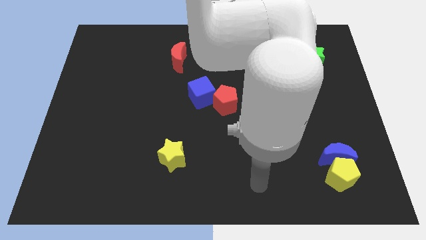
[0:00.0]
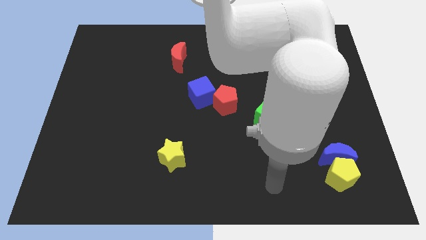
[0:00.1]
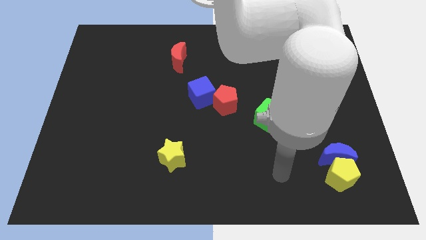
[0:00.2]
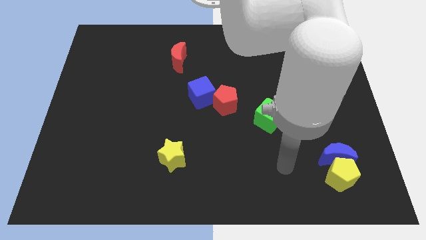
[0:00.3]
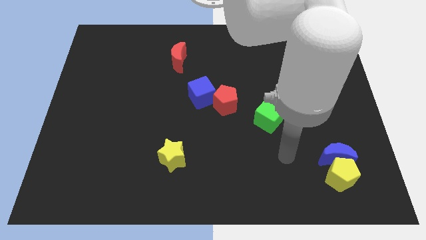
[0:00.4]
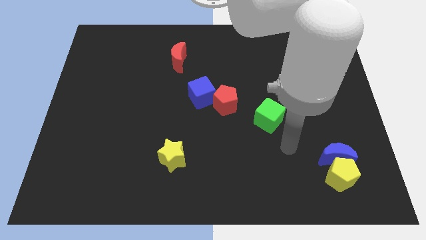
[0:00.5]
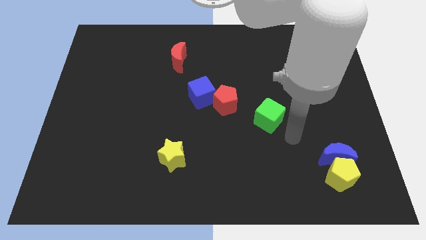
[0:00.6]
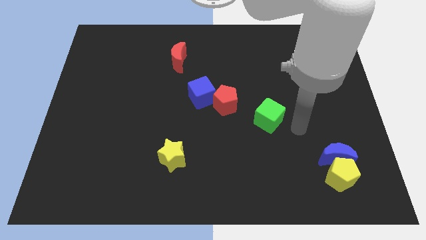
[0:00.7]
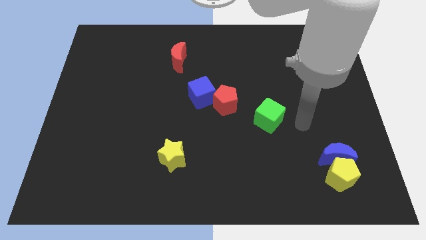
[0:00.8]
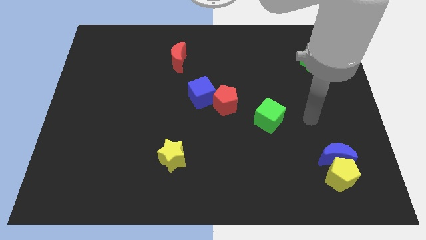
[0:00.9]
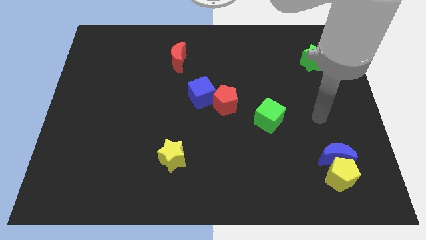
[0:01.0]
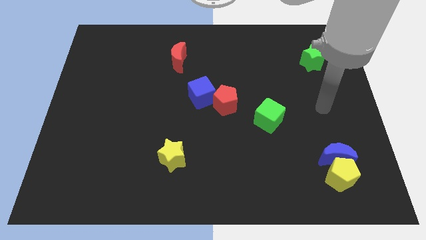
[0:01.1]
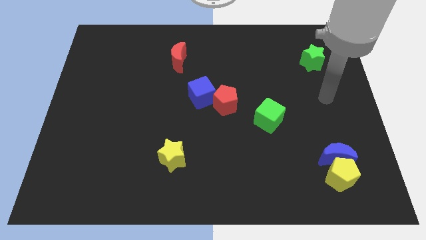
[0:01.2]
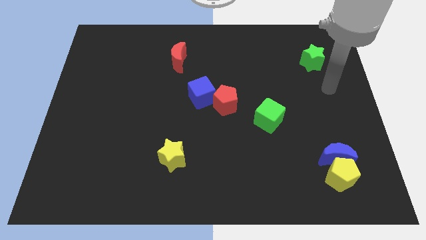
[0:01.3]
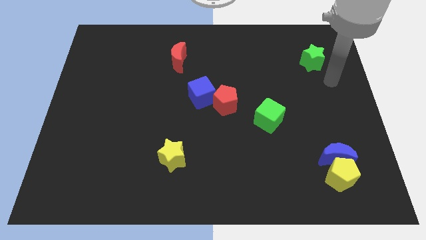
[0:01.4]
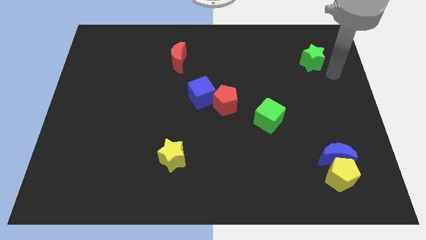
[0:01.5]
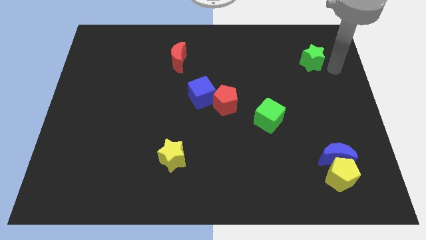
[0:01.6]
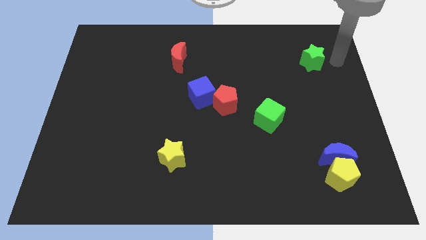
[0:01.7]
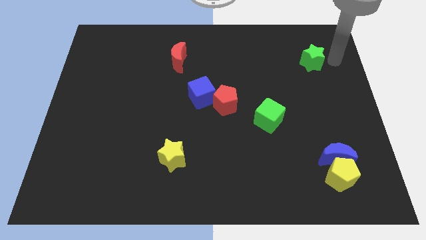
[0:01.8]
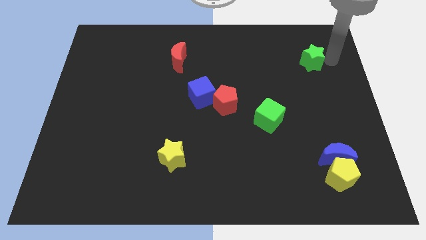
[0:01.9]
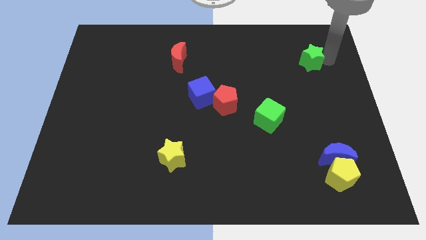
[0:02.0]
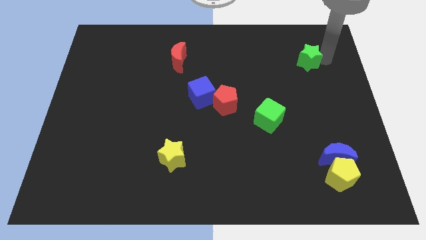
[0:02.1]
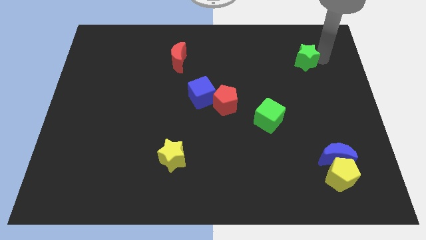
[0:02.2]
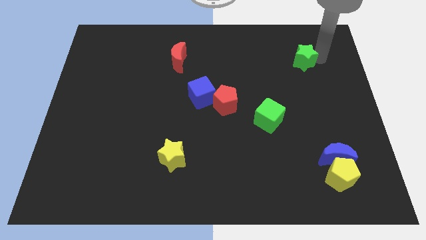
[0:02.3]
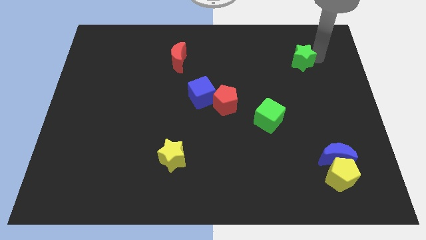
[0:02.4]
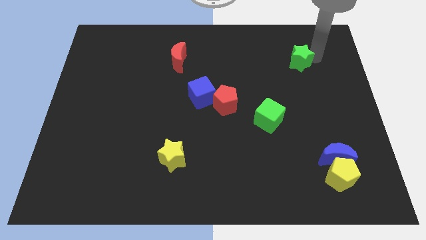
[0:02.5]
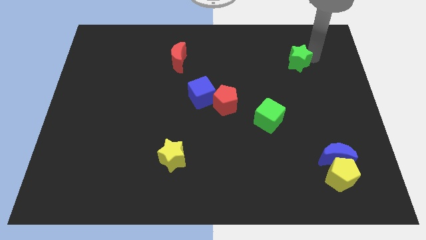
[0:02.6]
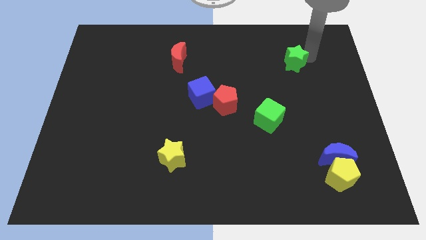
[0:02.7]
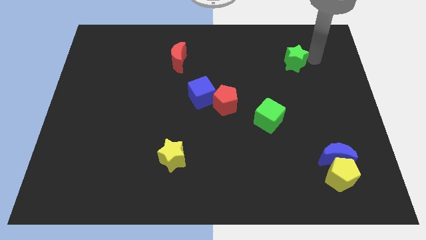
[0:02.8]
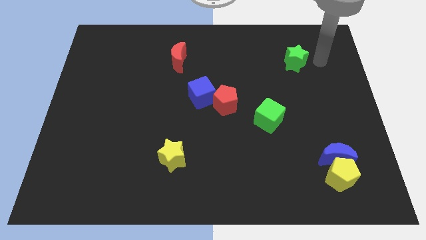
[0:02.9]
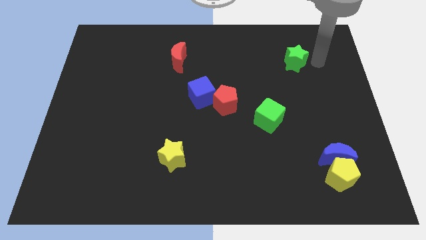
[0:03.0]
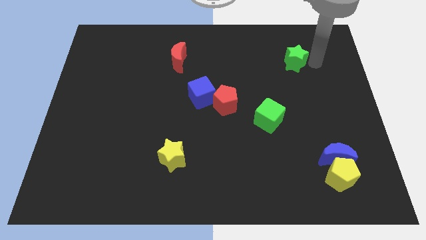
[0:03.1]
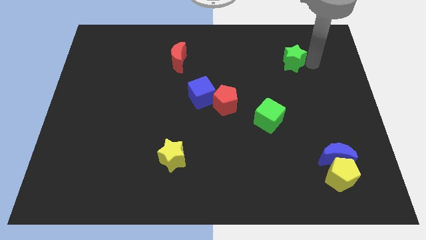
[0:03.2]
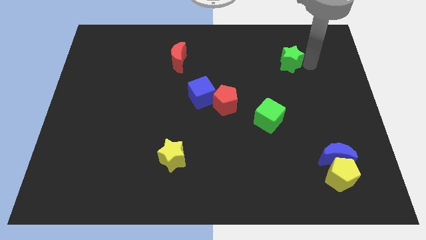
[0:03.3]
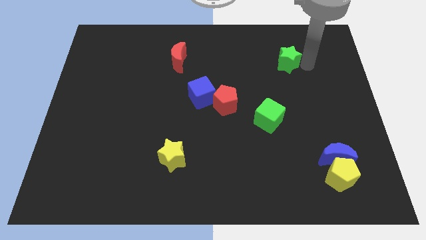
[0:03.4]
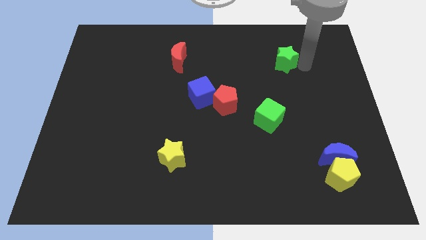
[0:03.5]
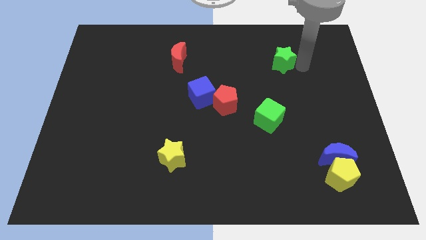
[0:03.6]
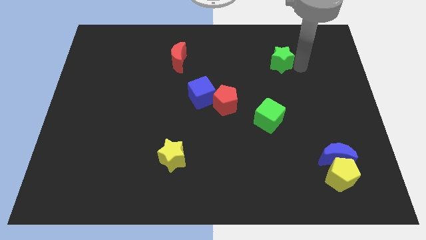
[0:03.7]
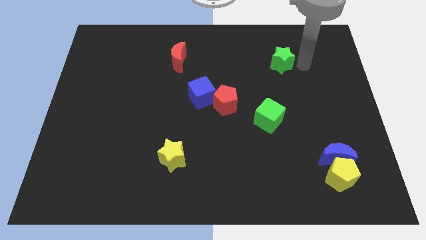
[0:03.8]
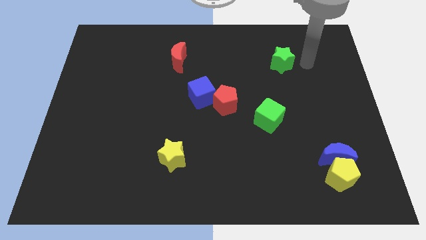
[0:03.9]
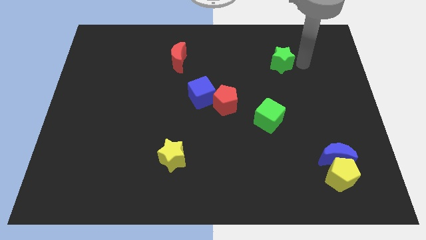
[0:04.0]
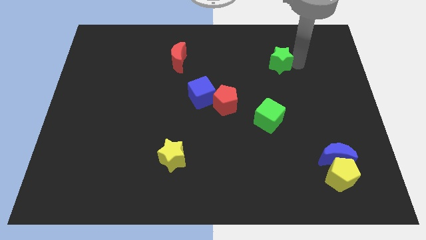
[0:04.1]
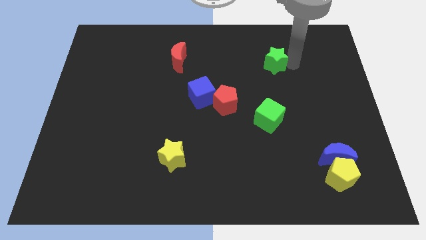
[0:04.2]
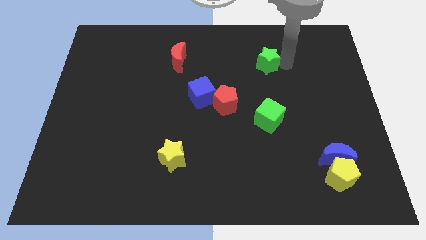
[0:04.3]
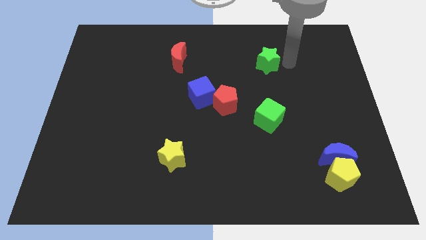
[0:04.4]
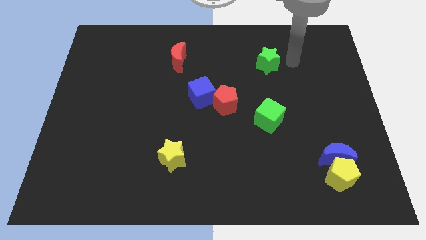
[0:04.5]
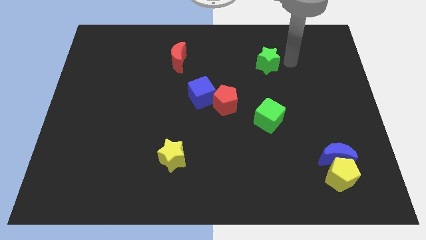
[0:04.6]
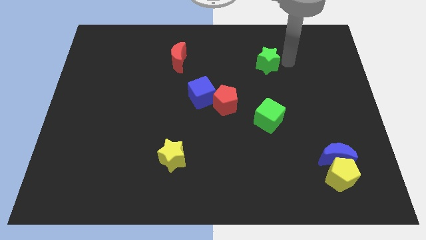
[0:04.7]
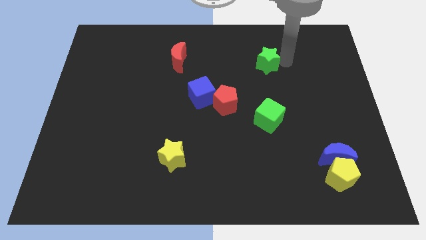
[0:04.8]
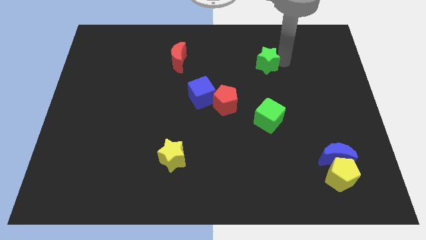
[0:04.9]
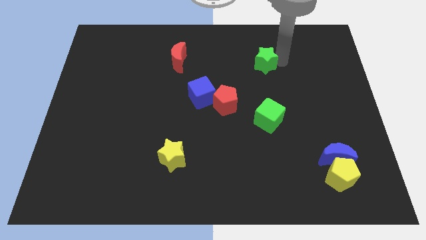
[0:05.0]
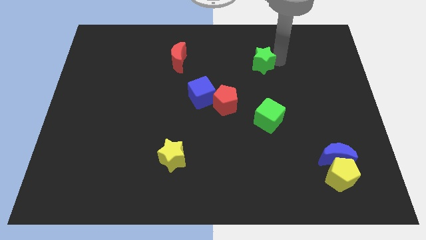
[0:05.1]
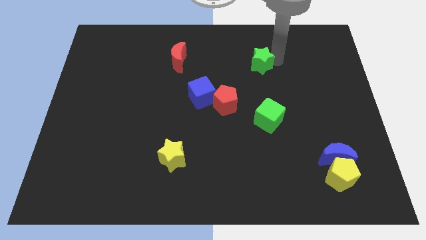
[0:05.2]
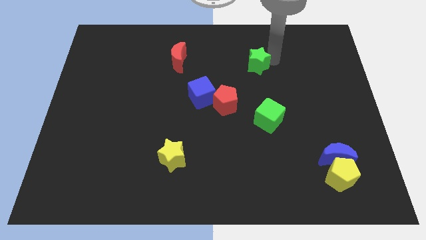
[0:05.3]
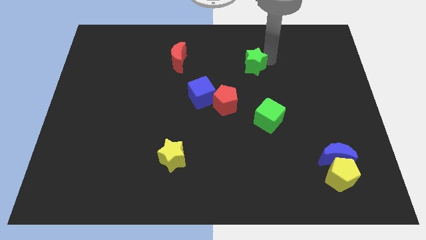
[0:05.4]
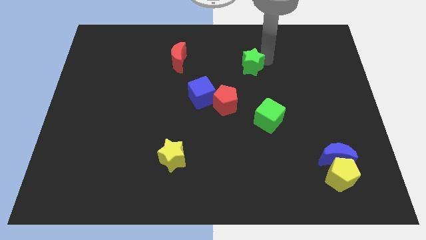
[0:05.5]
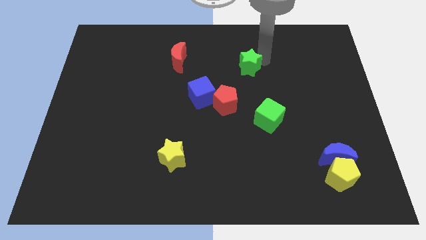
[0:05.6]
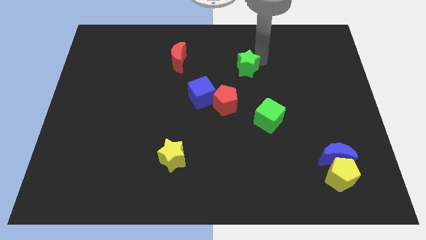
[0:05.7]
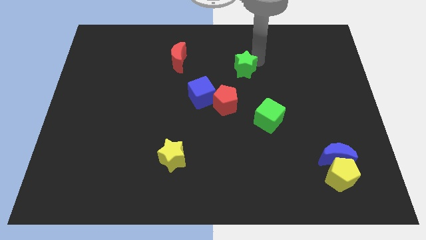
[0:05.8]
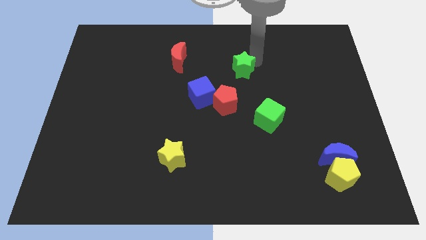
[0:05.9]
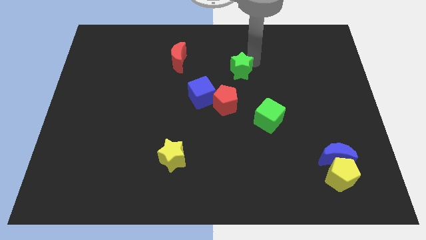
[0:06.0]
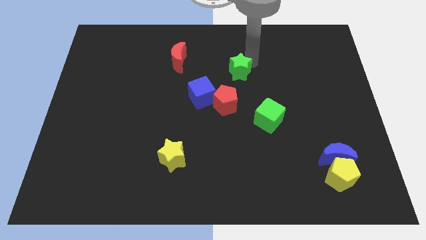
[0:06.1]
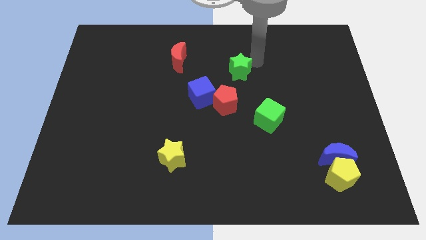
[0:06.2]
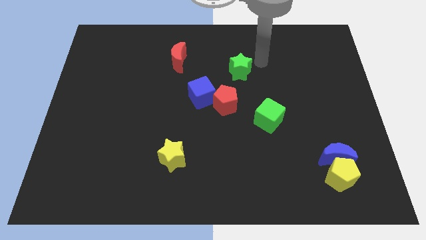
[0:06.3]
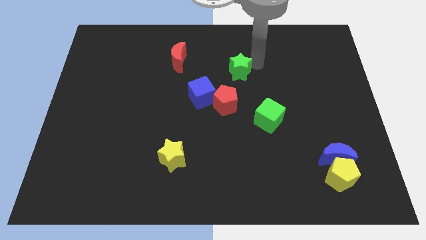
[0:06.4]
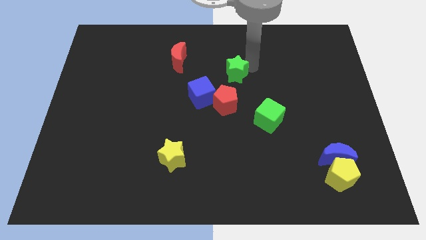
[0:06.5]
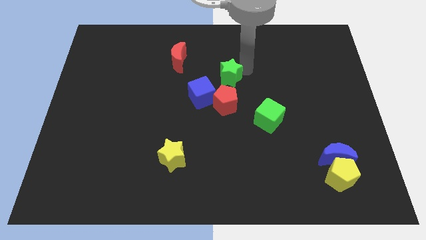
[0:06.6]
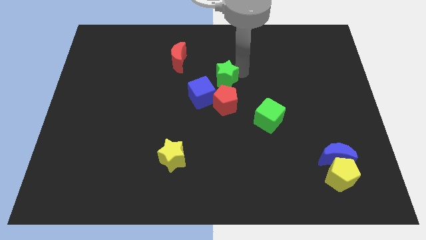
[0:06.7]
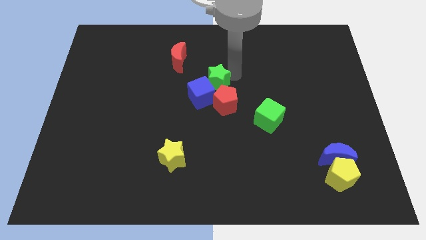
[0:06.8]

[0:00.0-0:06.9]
move the green star to the blue cube
